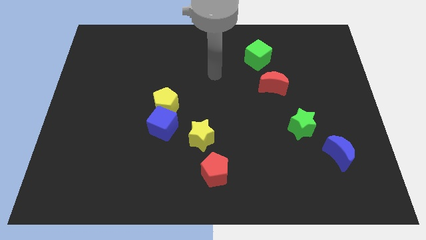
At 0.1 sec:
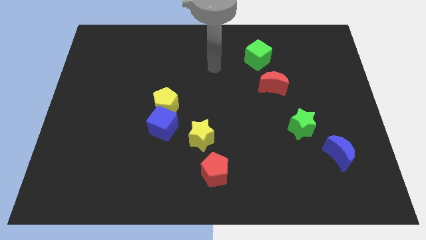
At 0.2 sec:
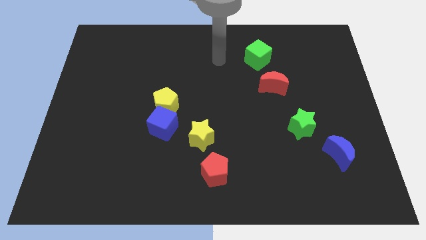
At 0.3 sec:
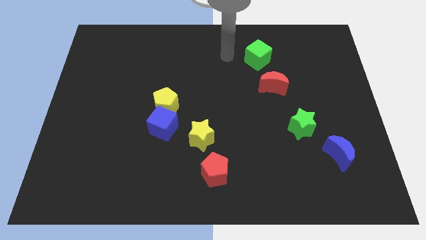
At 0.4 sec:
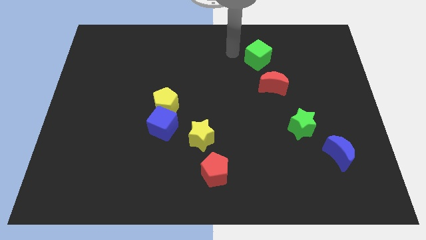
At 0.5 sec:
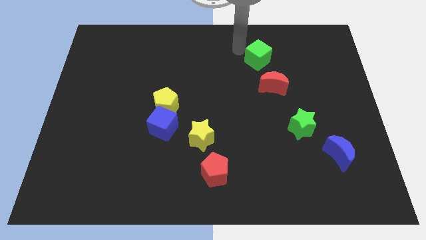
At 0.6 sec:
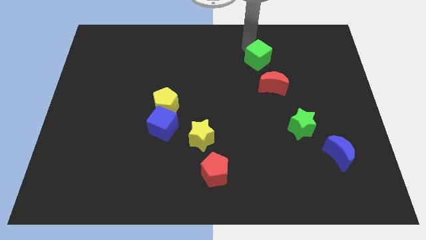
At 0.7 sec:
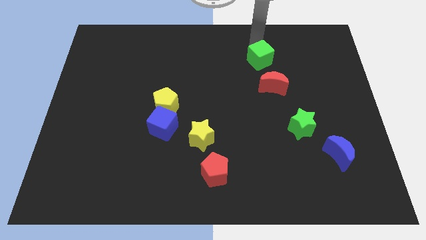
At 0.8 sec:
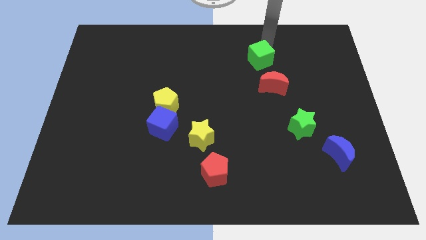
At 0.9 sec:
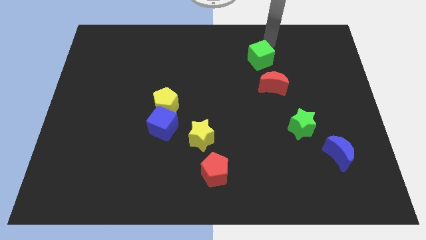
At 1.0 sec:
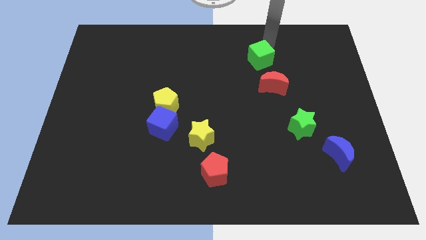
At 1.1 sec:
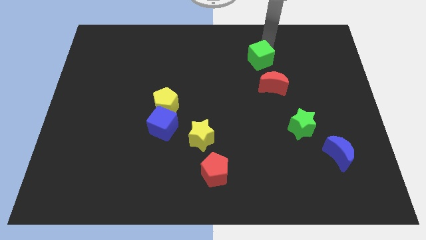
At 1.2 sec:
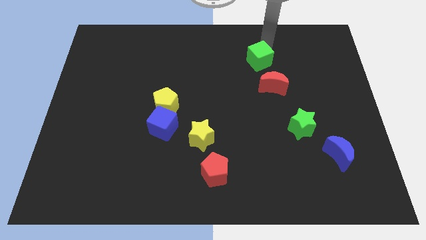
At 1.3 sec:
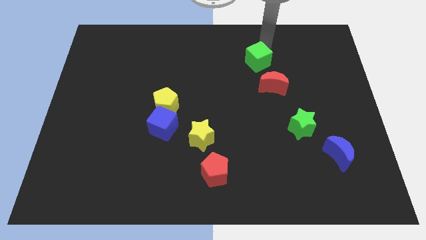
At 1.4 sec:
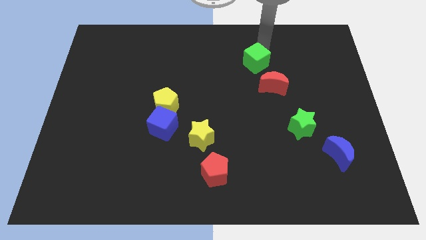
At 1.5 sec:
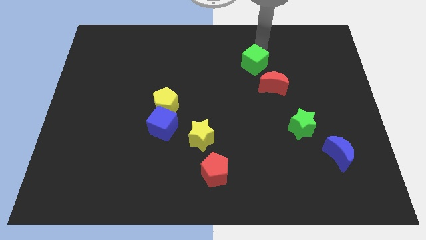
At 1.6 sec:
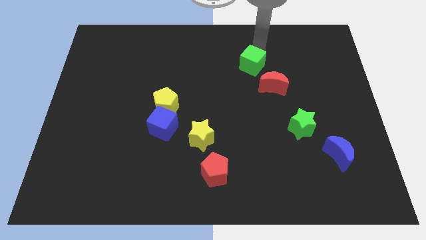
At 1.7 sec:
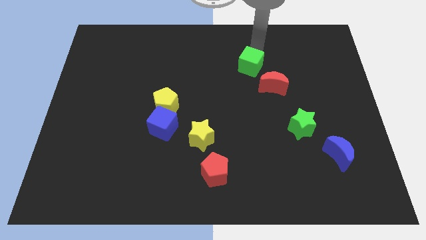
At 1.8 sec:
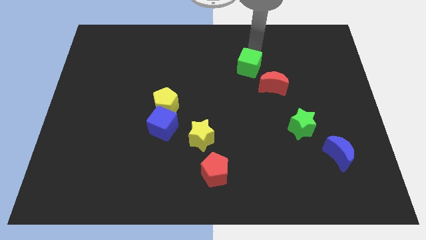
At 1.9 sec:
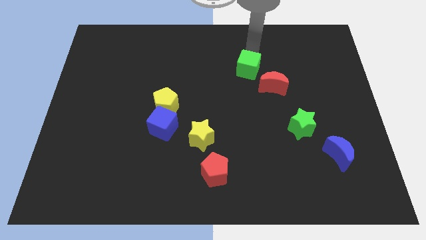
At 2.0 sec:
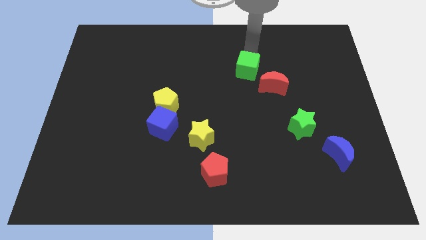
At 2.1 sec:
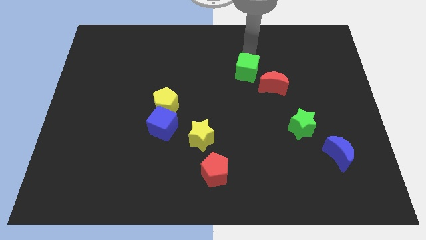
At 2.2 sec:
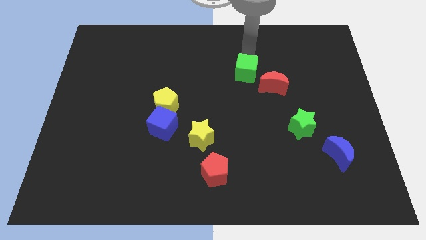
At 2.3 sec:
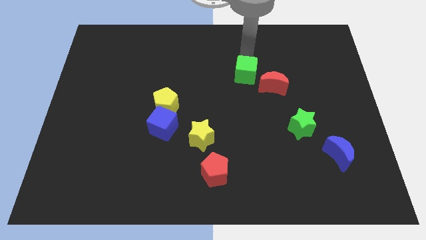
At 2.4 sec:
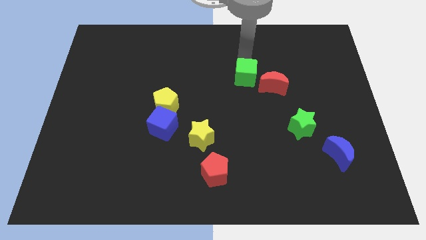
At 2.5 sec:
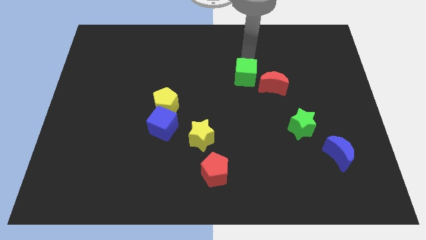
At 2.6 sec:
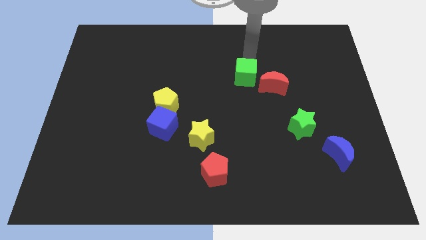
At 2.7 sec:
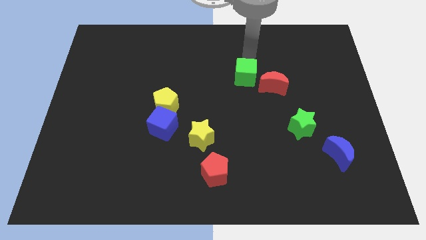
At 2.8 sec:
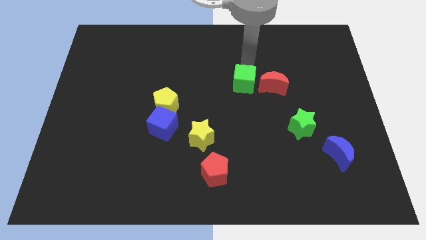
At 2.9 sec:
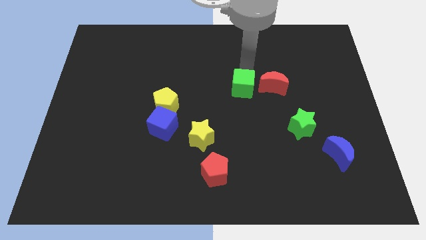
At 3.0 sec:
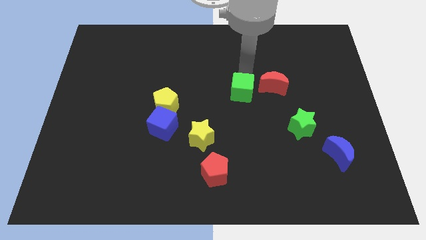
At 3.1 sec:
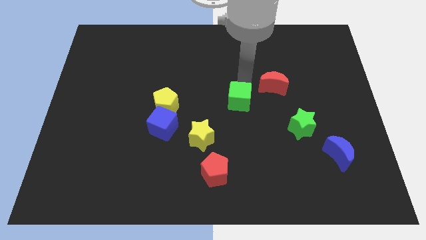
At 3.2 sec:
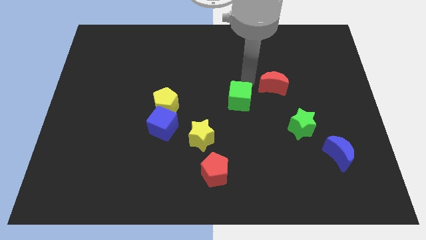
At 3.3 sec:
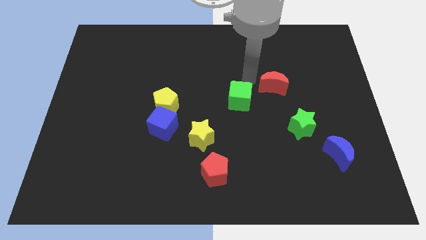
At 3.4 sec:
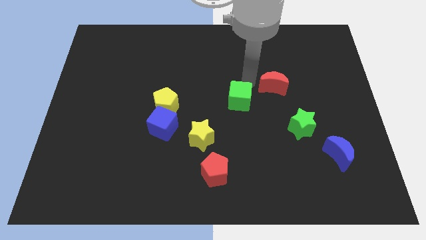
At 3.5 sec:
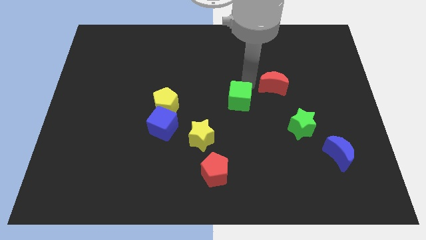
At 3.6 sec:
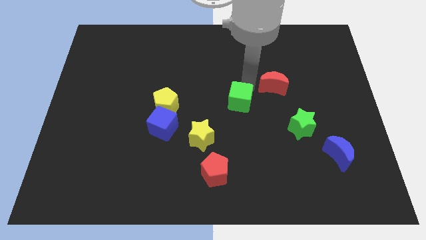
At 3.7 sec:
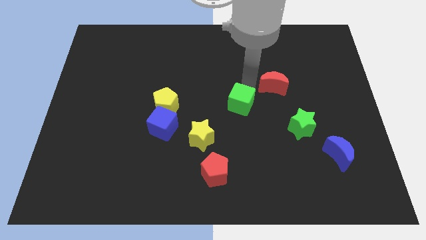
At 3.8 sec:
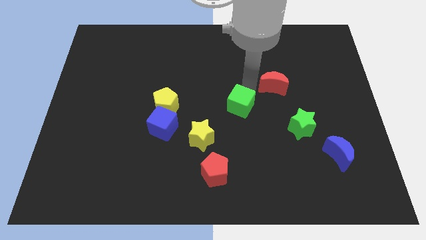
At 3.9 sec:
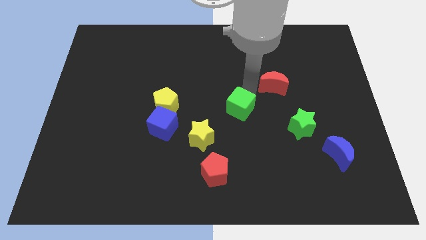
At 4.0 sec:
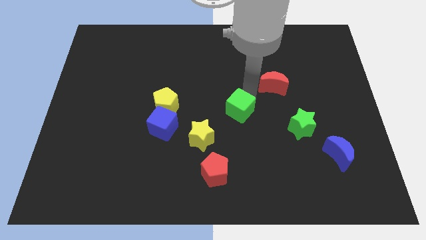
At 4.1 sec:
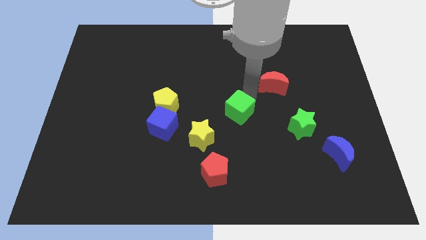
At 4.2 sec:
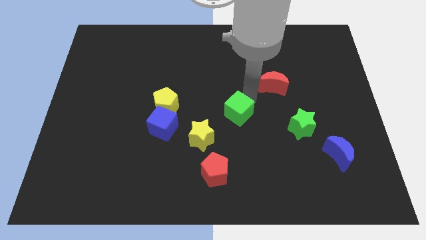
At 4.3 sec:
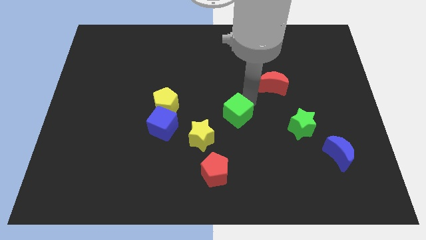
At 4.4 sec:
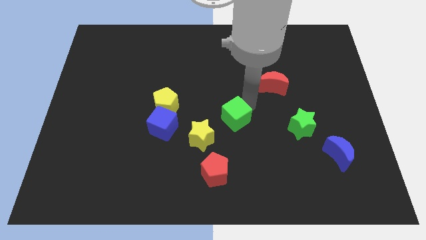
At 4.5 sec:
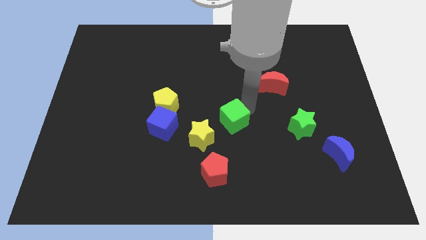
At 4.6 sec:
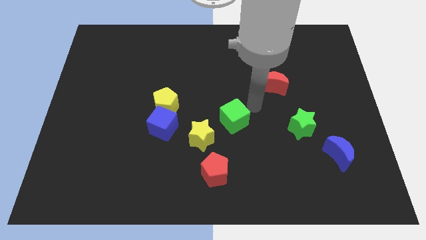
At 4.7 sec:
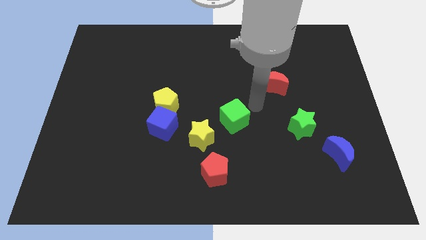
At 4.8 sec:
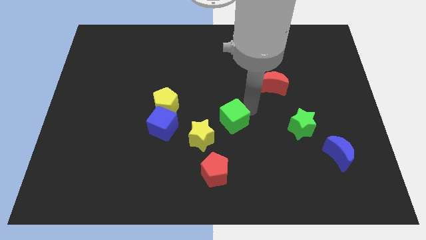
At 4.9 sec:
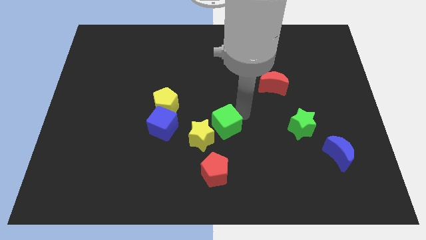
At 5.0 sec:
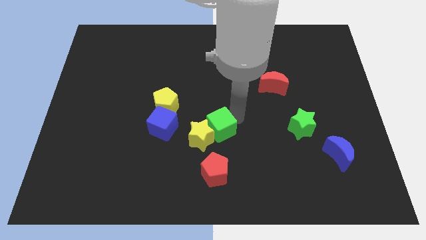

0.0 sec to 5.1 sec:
slide the green cube next to the yellow star

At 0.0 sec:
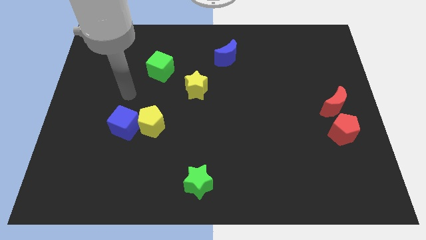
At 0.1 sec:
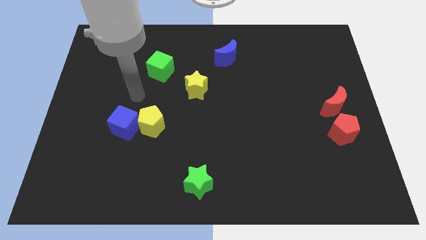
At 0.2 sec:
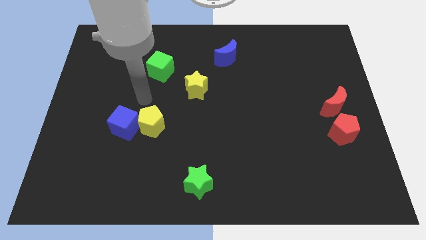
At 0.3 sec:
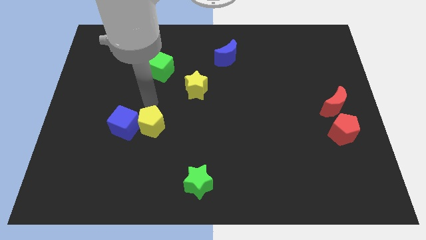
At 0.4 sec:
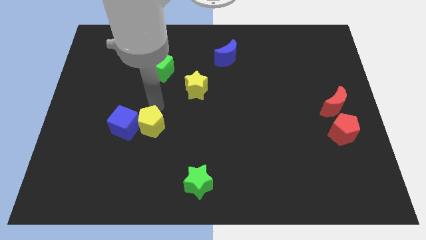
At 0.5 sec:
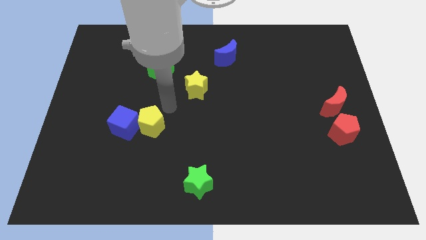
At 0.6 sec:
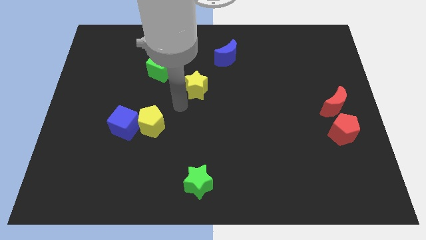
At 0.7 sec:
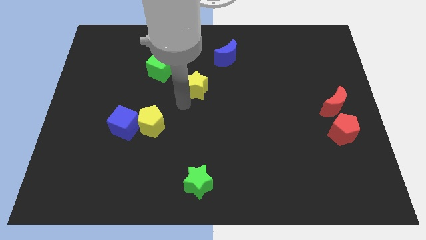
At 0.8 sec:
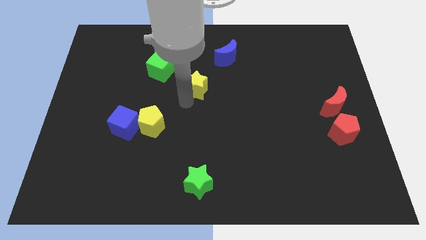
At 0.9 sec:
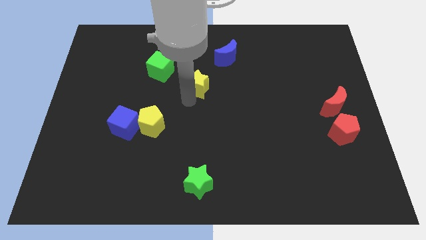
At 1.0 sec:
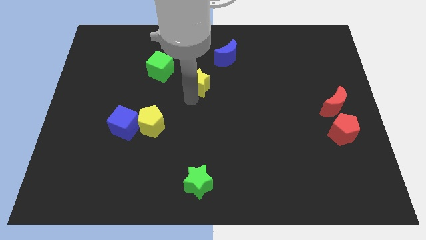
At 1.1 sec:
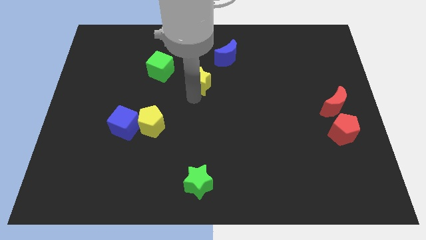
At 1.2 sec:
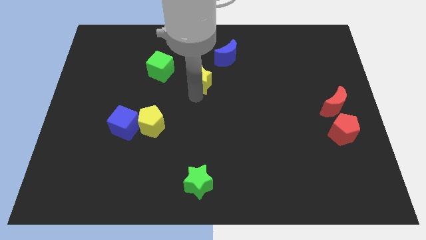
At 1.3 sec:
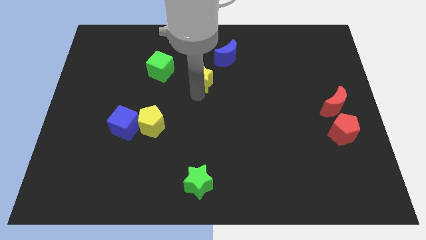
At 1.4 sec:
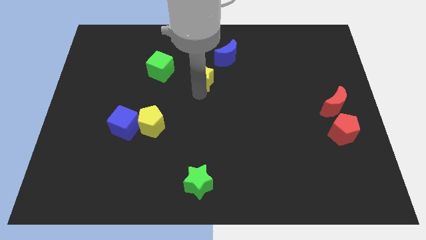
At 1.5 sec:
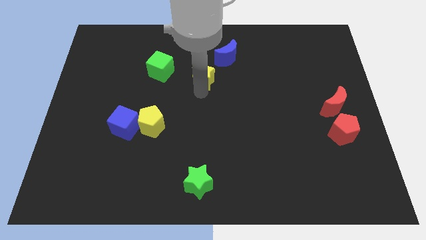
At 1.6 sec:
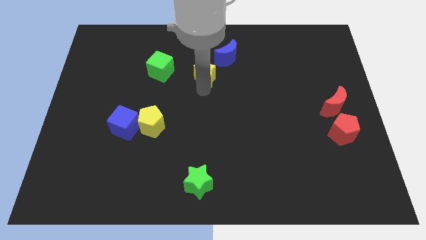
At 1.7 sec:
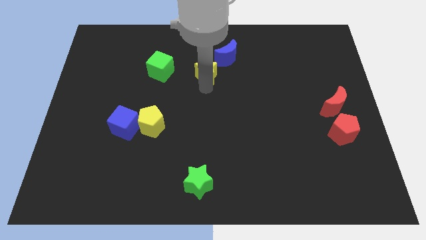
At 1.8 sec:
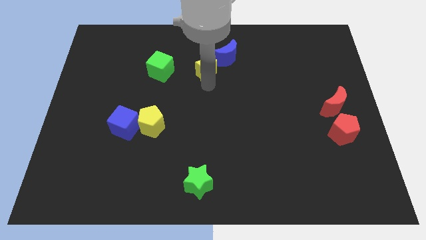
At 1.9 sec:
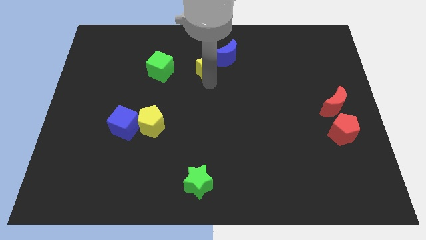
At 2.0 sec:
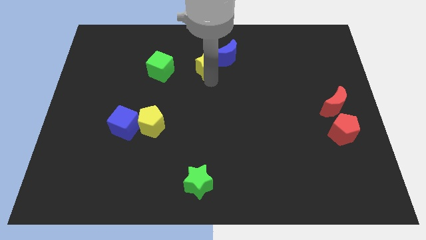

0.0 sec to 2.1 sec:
push the yellow star next to the blue moon
